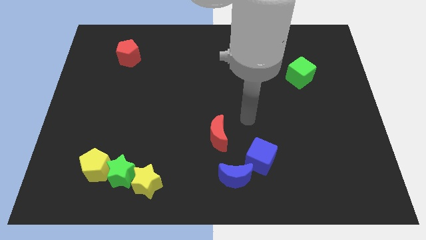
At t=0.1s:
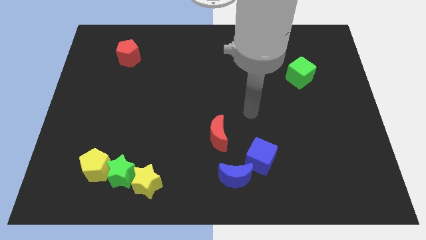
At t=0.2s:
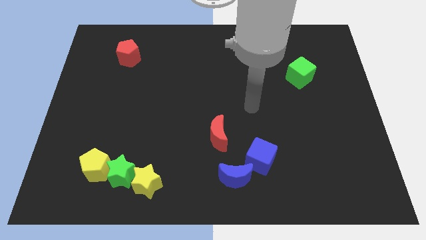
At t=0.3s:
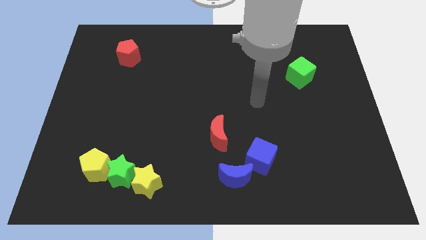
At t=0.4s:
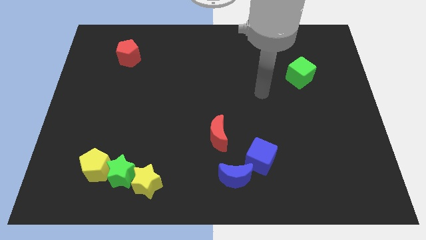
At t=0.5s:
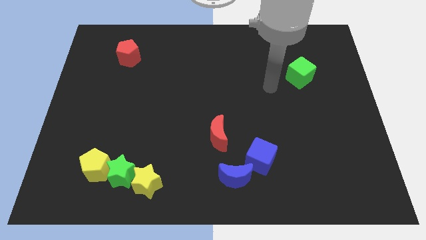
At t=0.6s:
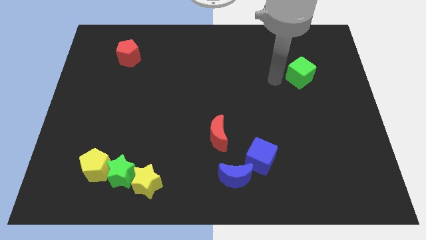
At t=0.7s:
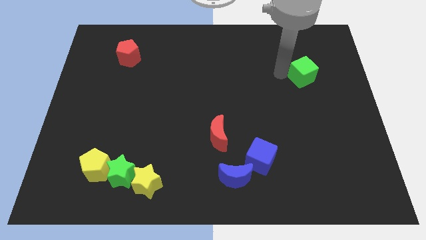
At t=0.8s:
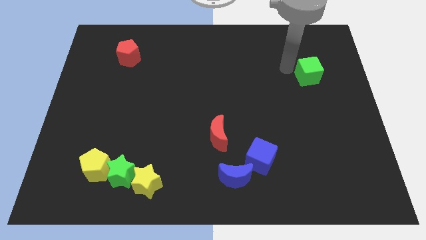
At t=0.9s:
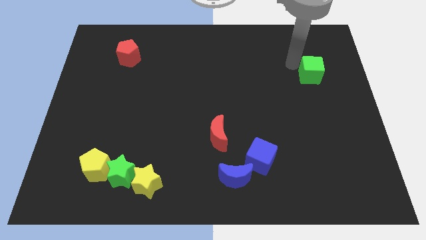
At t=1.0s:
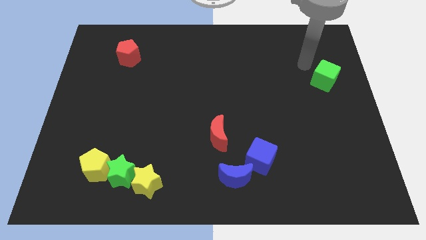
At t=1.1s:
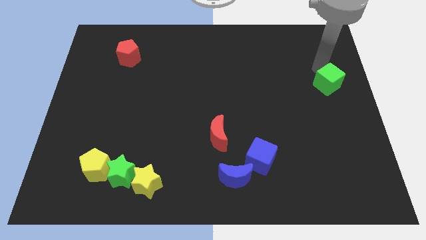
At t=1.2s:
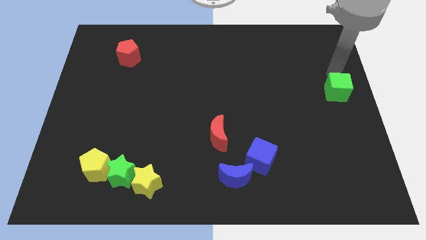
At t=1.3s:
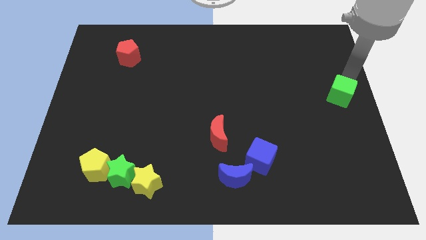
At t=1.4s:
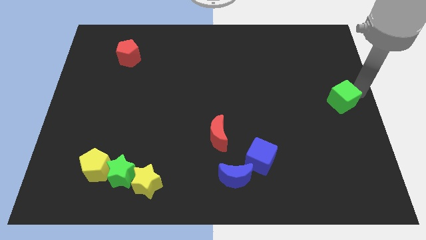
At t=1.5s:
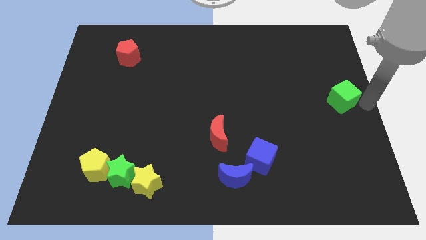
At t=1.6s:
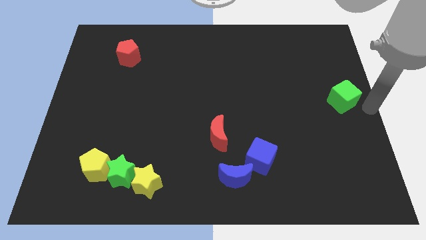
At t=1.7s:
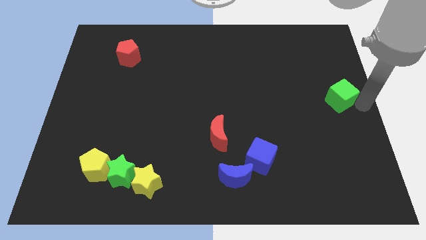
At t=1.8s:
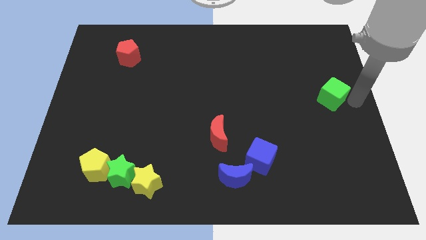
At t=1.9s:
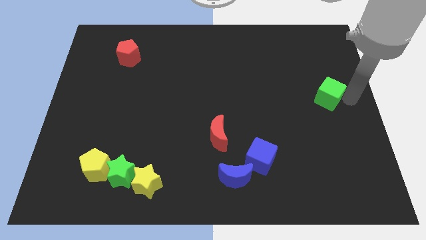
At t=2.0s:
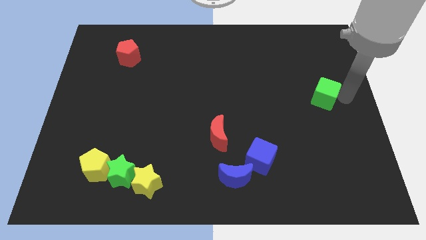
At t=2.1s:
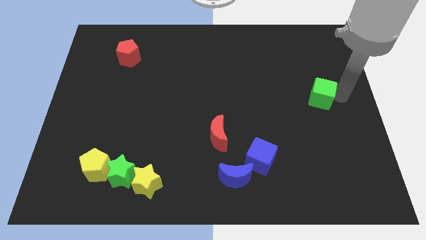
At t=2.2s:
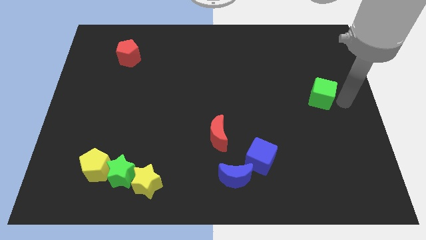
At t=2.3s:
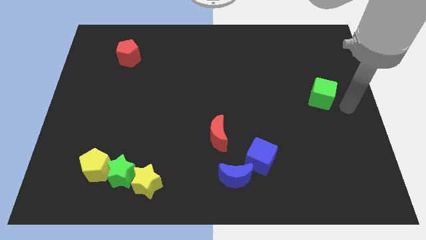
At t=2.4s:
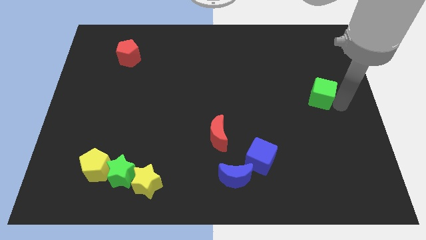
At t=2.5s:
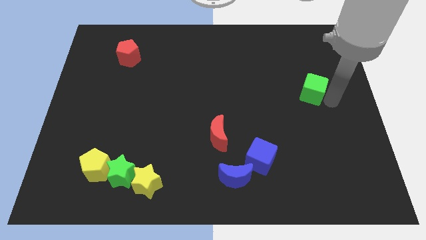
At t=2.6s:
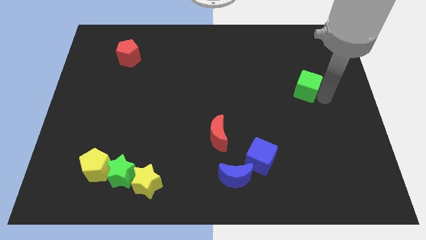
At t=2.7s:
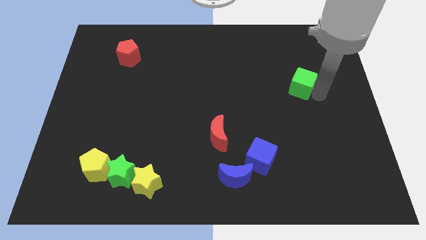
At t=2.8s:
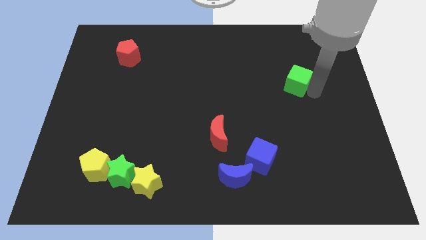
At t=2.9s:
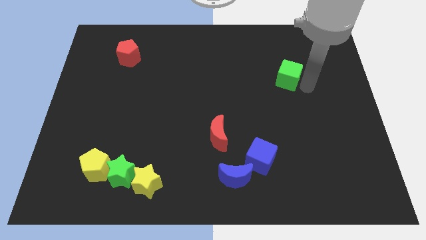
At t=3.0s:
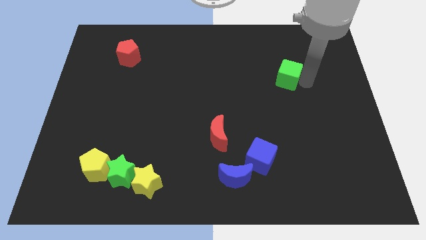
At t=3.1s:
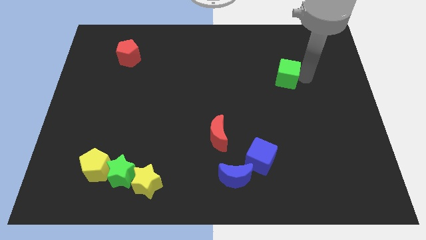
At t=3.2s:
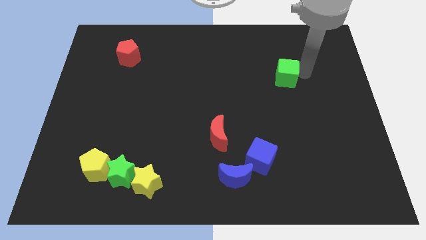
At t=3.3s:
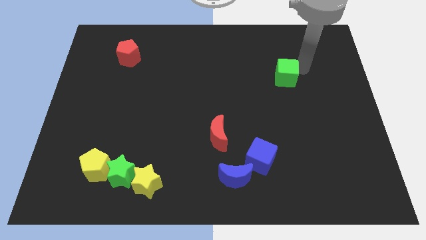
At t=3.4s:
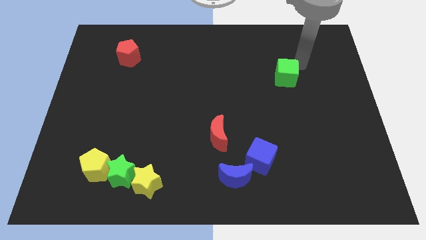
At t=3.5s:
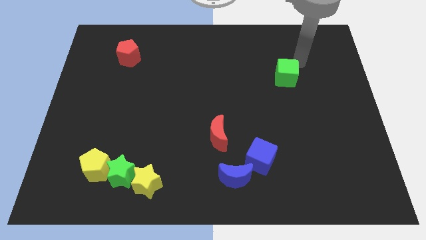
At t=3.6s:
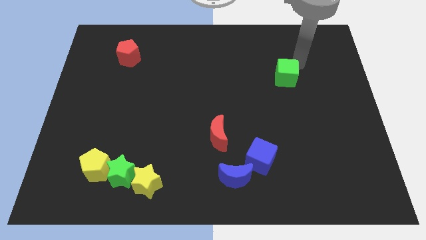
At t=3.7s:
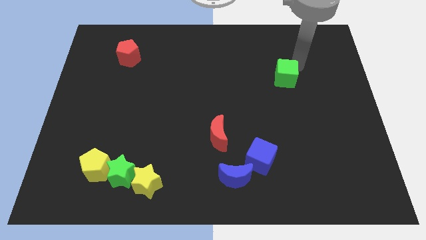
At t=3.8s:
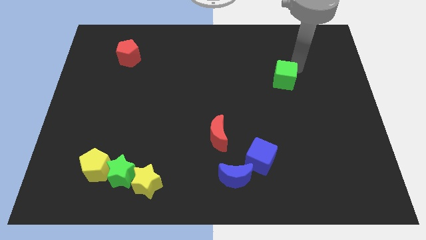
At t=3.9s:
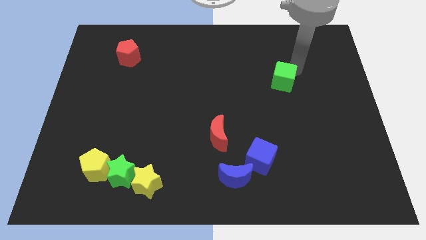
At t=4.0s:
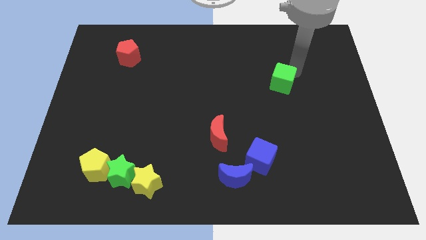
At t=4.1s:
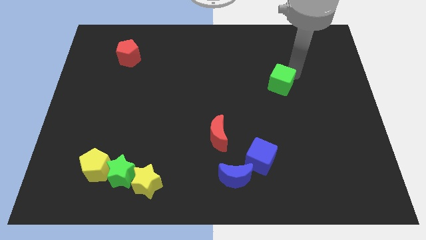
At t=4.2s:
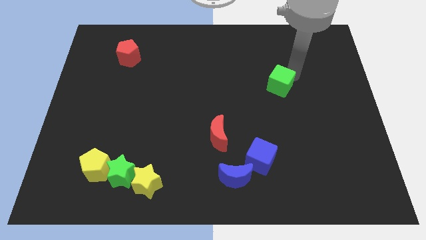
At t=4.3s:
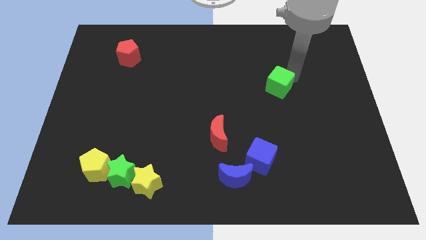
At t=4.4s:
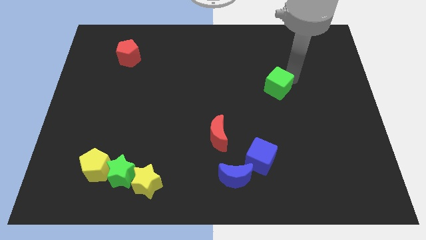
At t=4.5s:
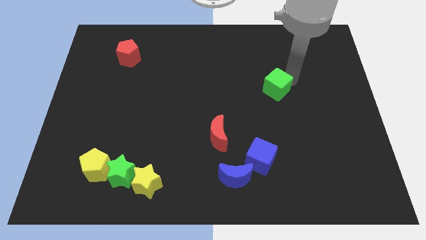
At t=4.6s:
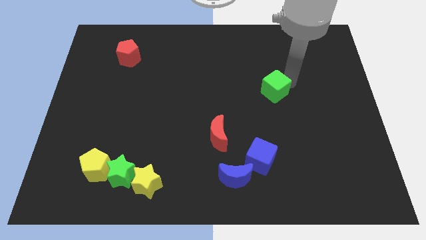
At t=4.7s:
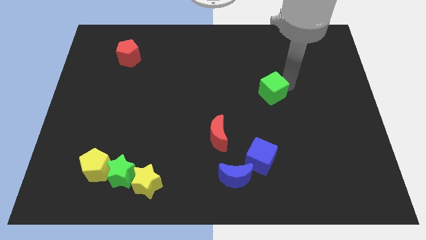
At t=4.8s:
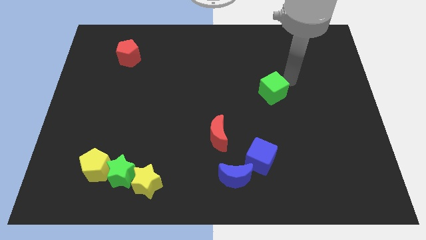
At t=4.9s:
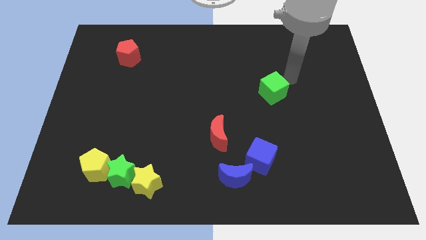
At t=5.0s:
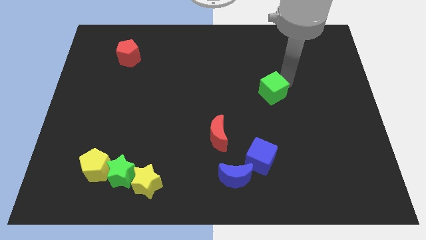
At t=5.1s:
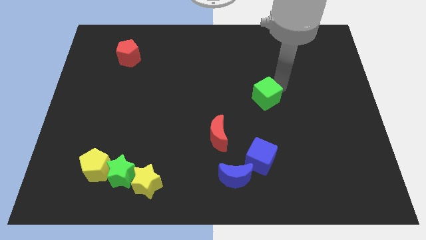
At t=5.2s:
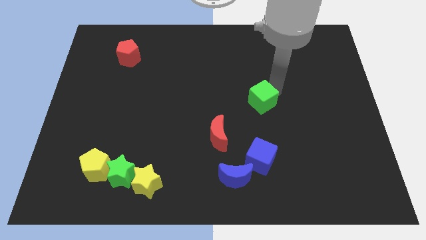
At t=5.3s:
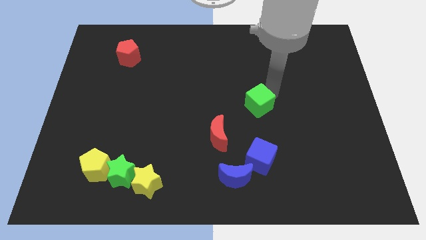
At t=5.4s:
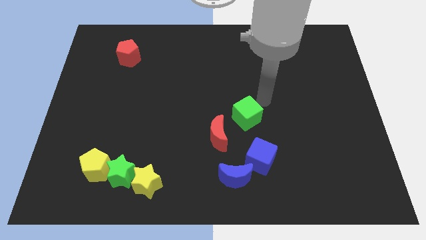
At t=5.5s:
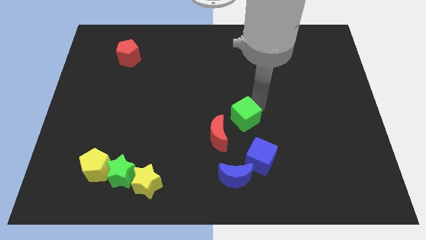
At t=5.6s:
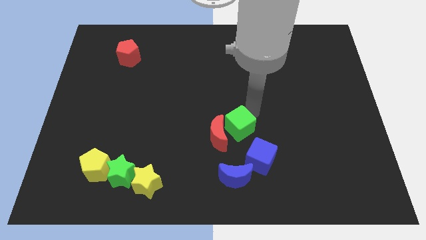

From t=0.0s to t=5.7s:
slide the green cube next to the red moon

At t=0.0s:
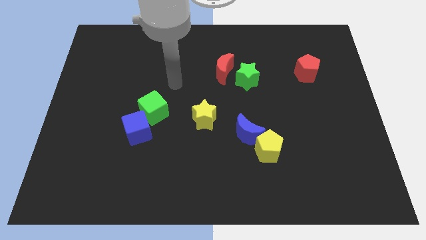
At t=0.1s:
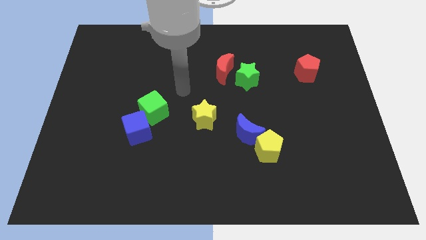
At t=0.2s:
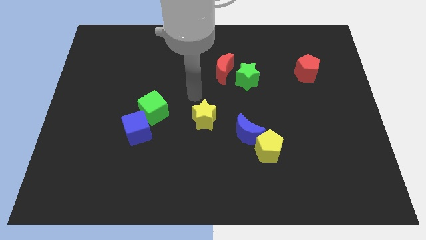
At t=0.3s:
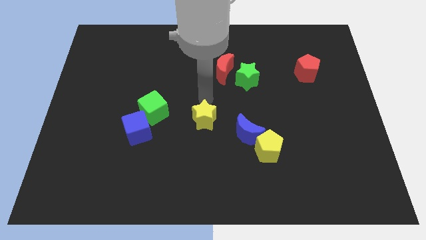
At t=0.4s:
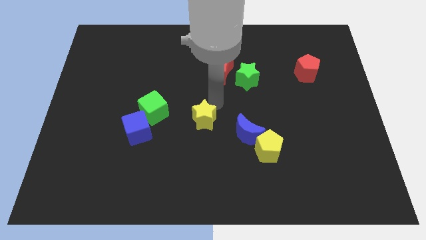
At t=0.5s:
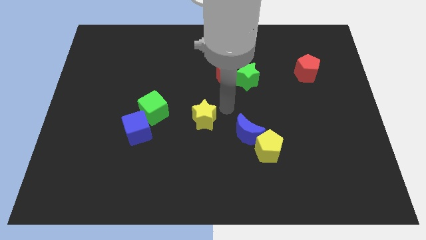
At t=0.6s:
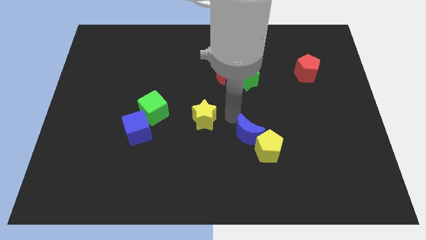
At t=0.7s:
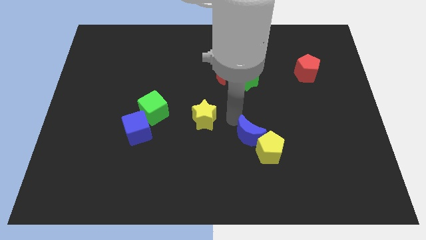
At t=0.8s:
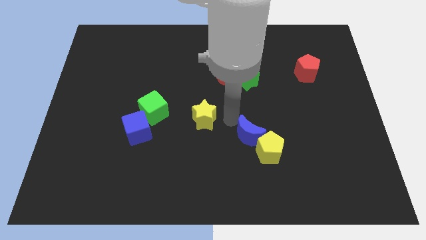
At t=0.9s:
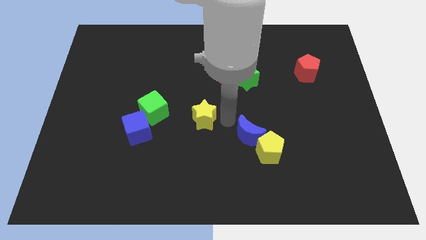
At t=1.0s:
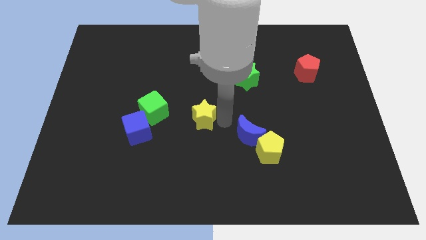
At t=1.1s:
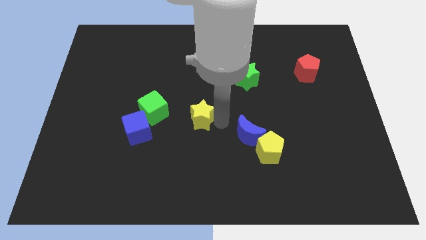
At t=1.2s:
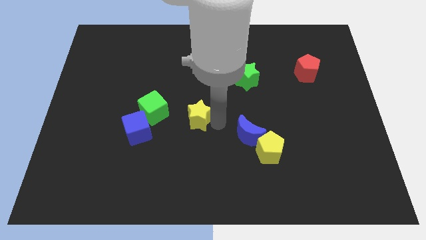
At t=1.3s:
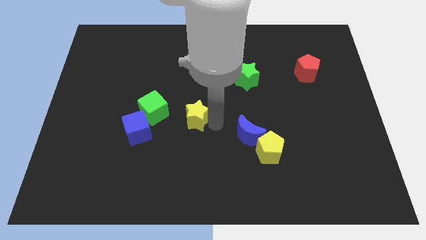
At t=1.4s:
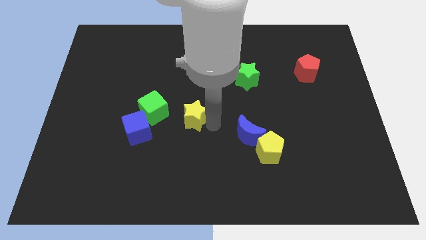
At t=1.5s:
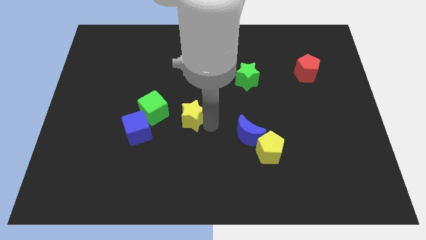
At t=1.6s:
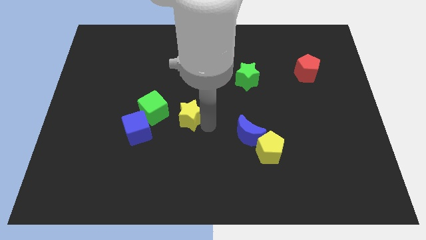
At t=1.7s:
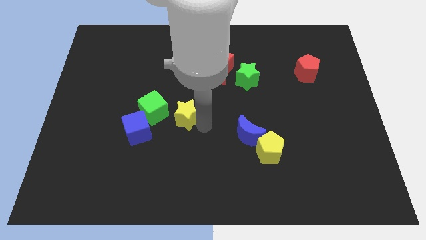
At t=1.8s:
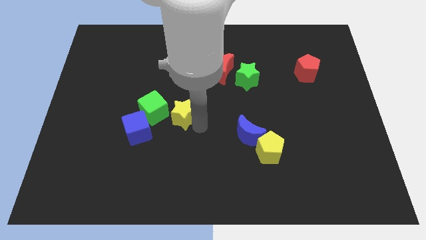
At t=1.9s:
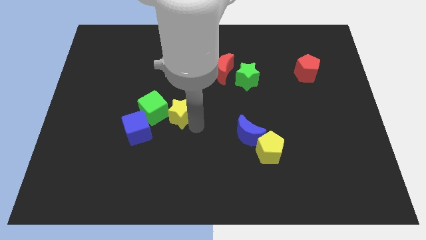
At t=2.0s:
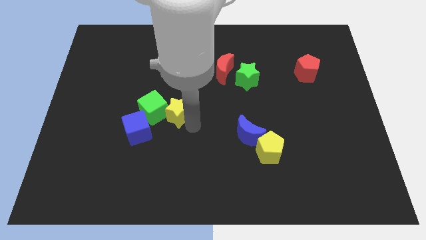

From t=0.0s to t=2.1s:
slide the yellow star close to the green cube
